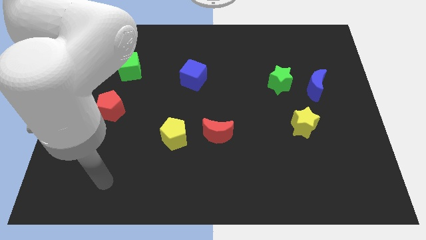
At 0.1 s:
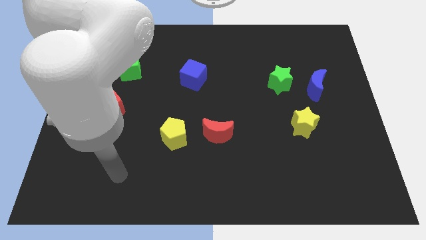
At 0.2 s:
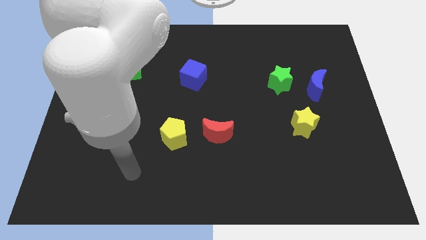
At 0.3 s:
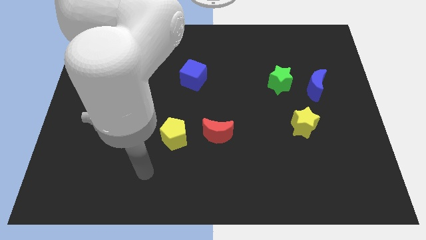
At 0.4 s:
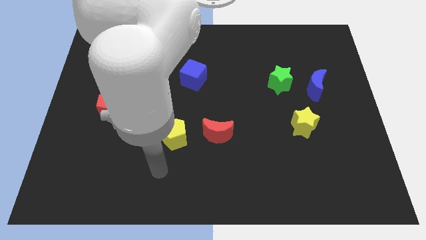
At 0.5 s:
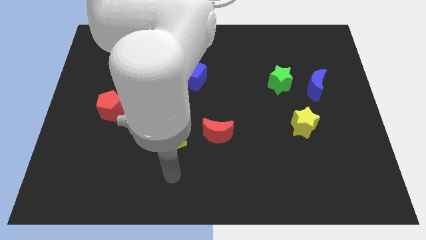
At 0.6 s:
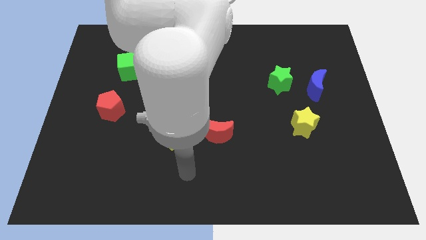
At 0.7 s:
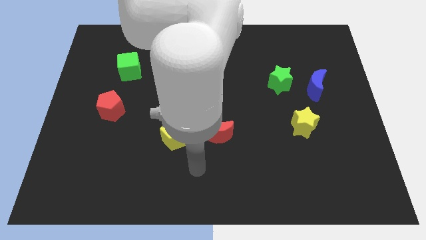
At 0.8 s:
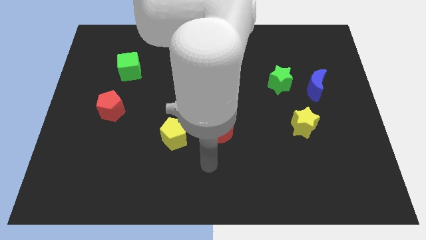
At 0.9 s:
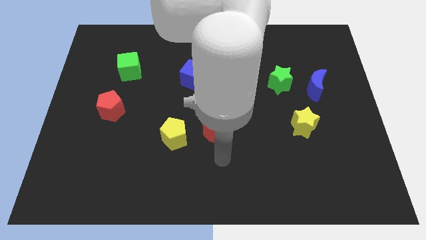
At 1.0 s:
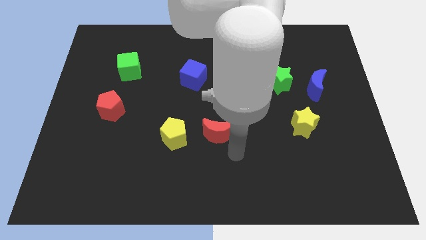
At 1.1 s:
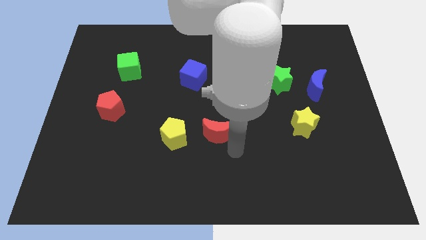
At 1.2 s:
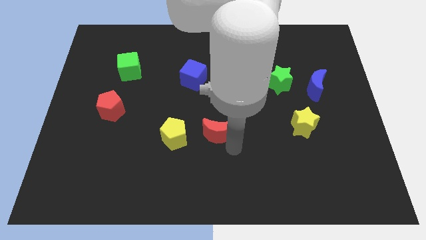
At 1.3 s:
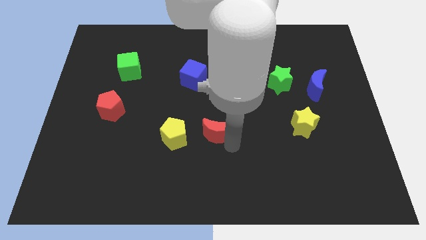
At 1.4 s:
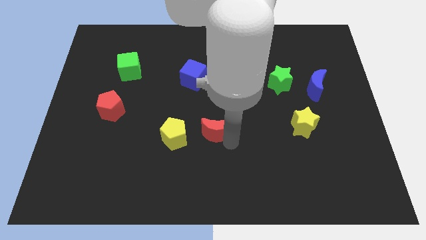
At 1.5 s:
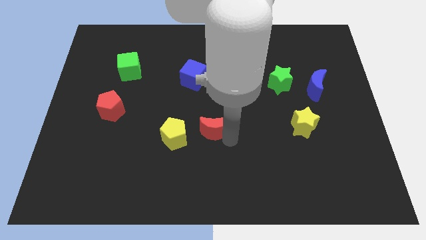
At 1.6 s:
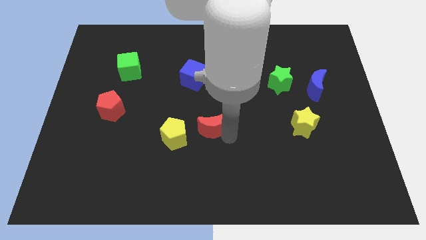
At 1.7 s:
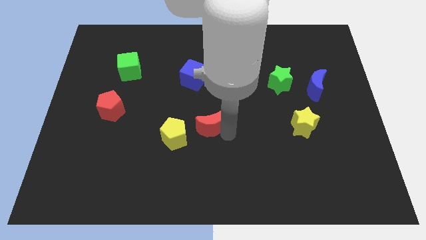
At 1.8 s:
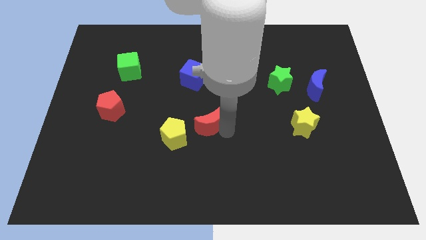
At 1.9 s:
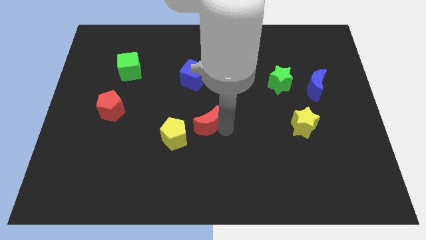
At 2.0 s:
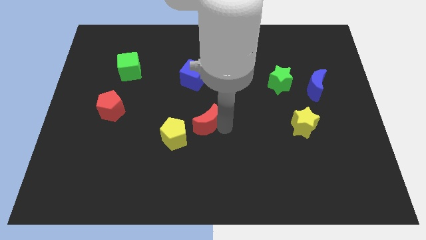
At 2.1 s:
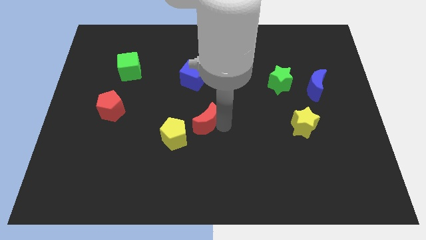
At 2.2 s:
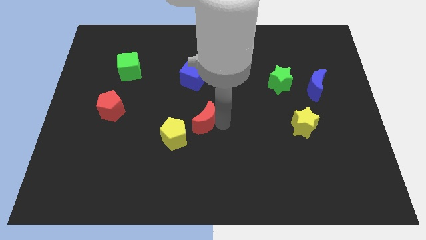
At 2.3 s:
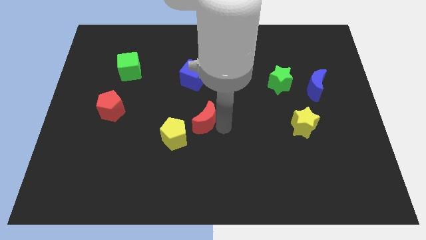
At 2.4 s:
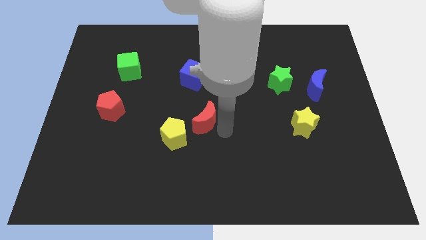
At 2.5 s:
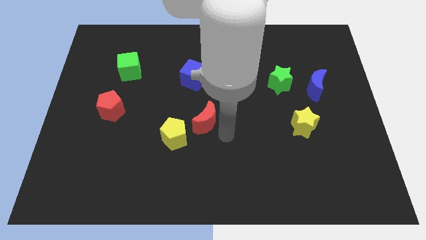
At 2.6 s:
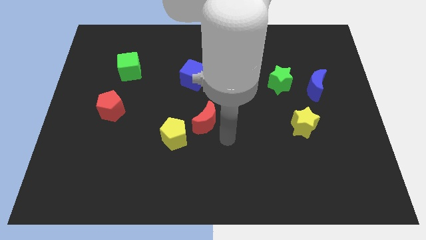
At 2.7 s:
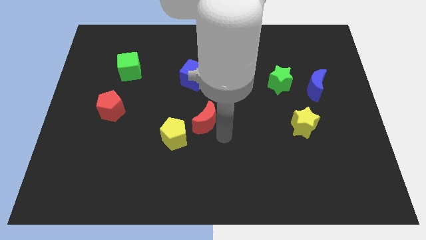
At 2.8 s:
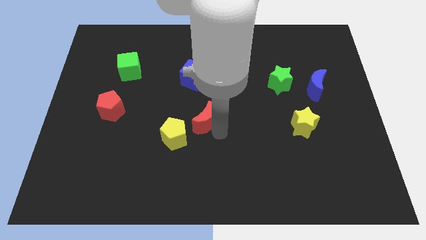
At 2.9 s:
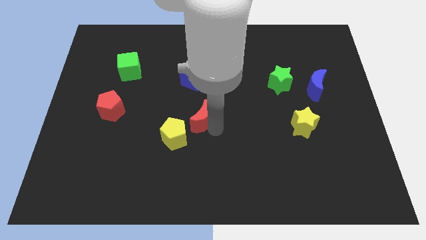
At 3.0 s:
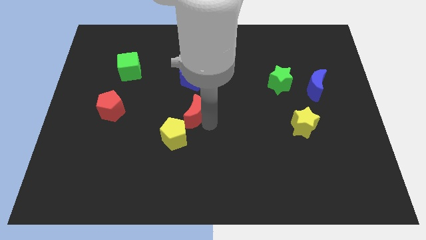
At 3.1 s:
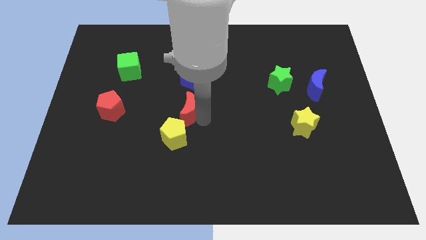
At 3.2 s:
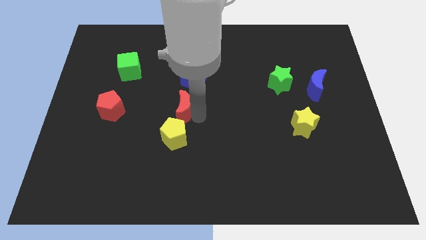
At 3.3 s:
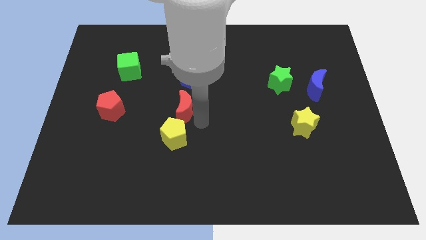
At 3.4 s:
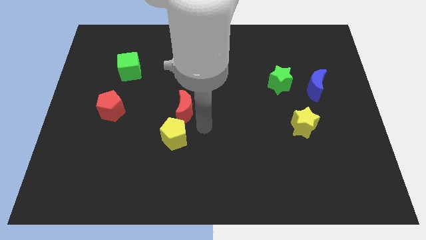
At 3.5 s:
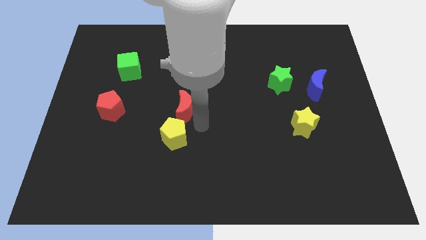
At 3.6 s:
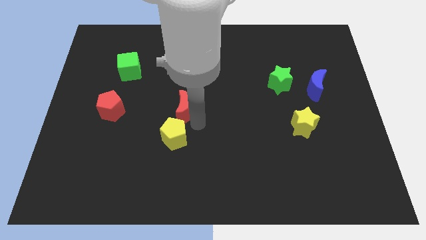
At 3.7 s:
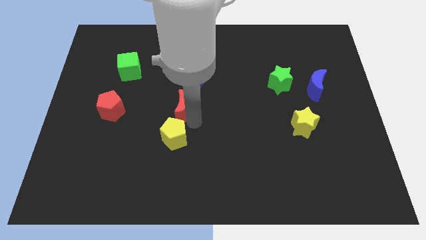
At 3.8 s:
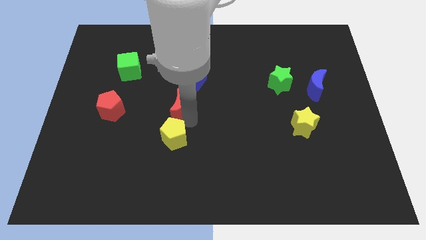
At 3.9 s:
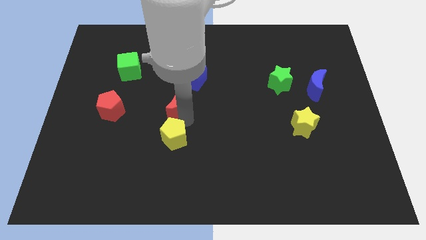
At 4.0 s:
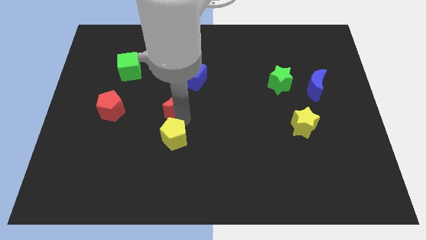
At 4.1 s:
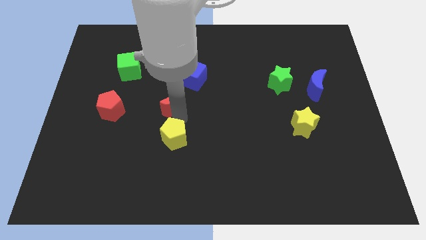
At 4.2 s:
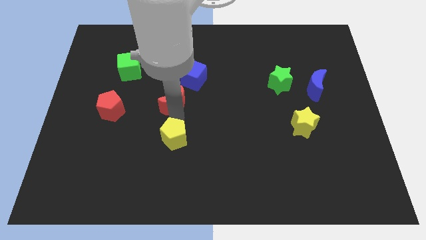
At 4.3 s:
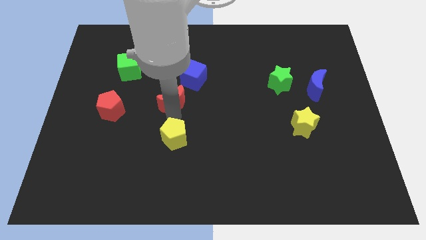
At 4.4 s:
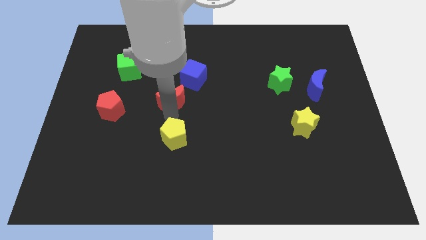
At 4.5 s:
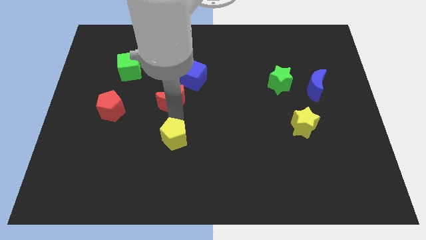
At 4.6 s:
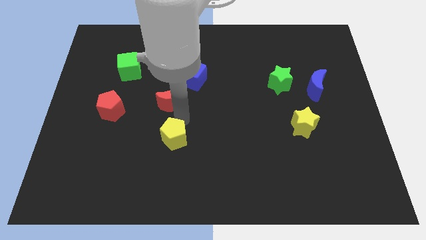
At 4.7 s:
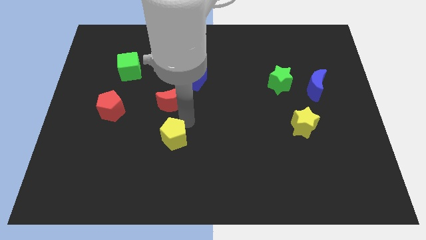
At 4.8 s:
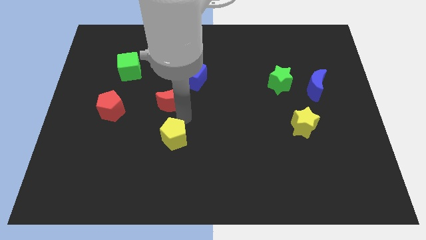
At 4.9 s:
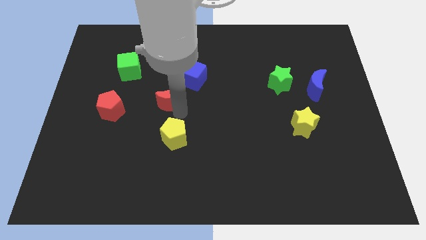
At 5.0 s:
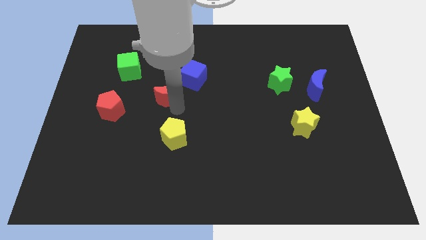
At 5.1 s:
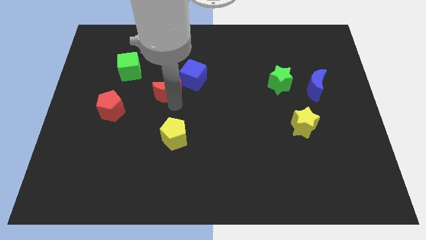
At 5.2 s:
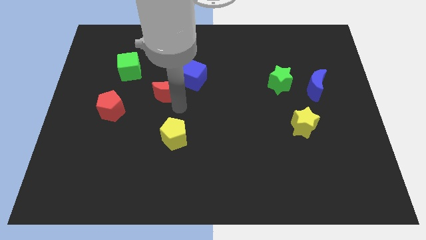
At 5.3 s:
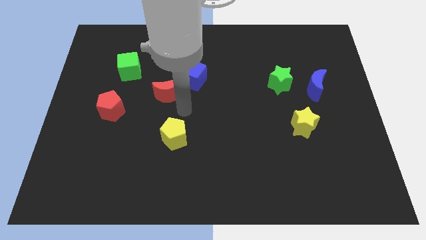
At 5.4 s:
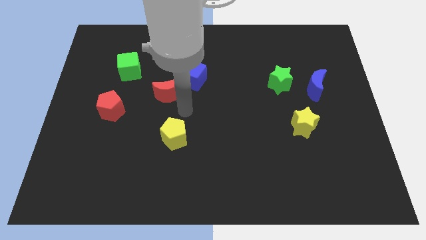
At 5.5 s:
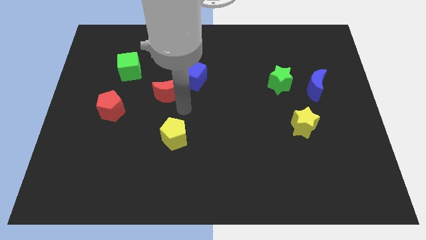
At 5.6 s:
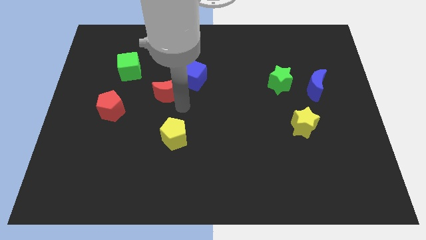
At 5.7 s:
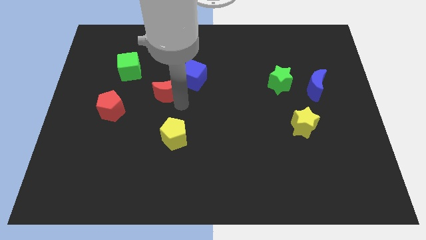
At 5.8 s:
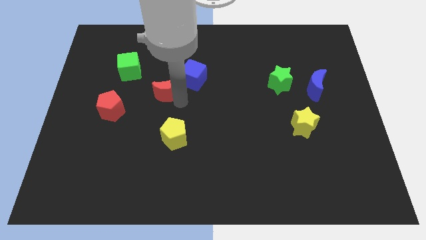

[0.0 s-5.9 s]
move the red moon left of the blue cube

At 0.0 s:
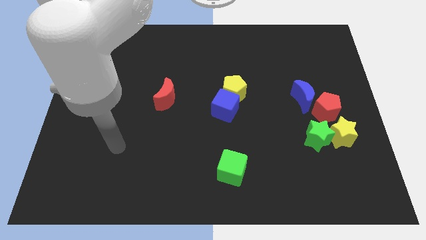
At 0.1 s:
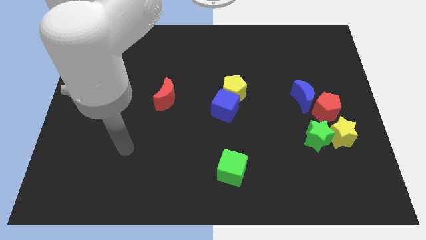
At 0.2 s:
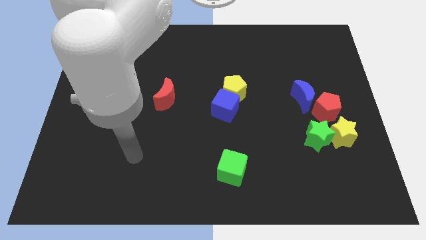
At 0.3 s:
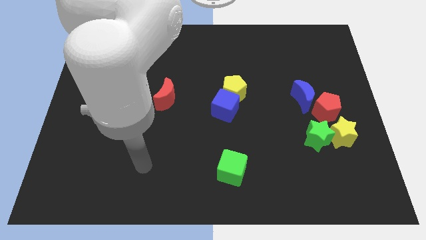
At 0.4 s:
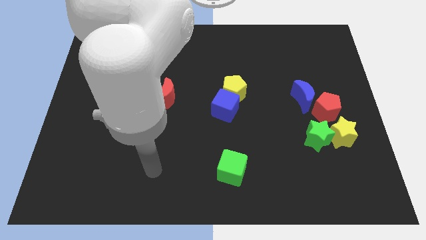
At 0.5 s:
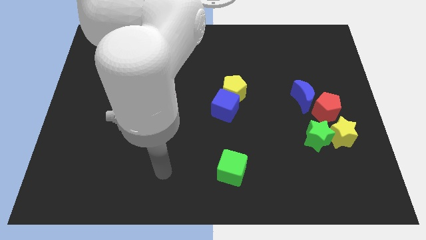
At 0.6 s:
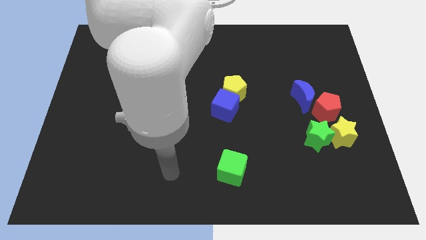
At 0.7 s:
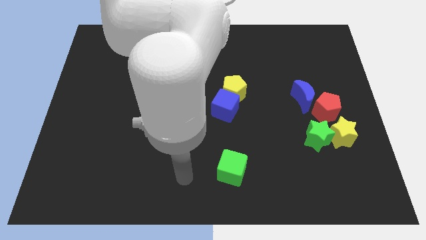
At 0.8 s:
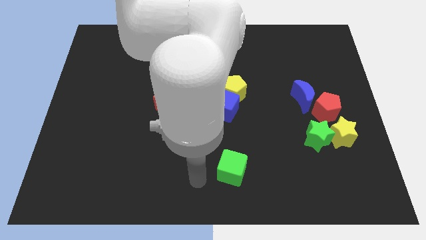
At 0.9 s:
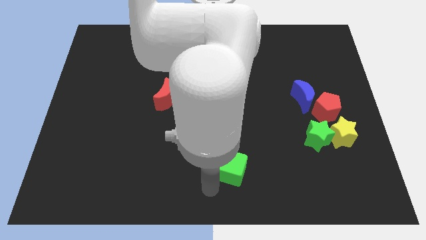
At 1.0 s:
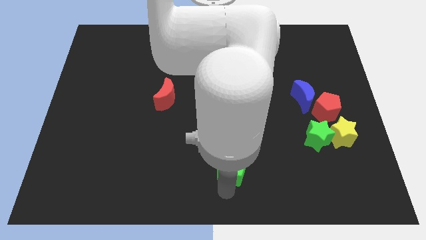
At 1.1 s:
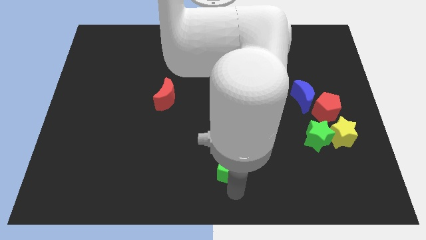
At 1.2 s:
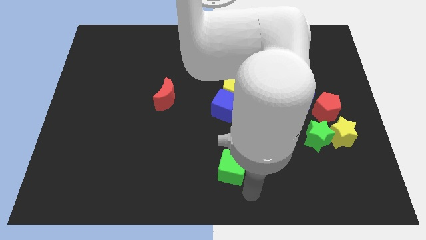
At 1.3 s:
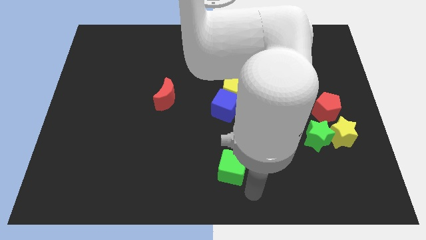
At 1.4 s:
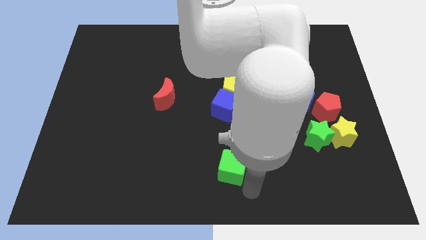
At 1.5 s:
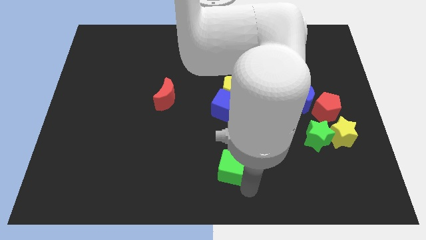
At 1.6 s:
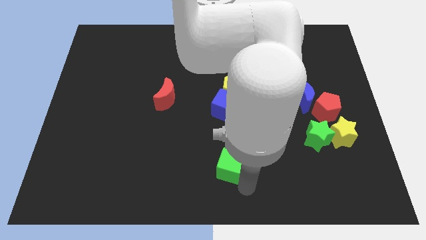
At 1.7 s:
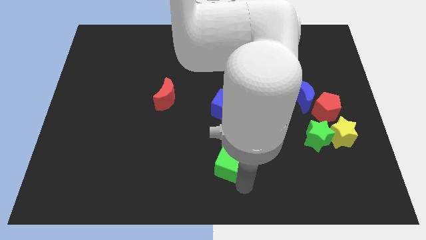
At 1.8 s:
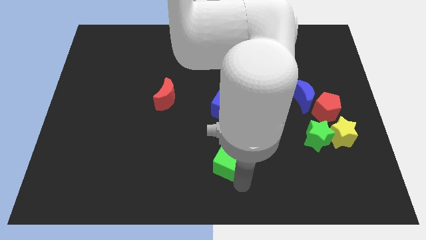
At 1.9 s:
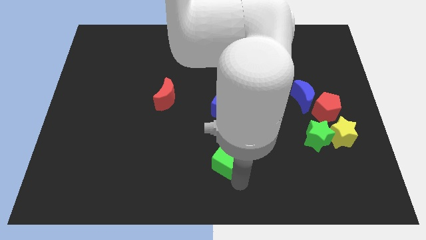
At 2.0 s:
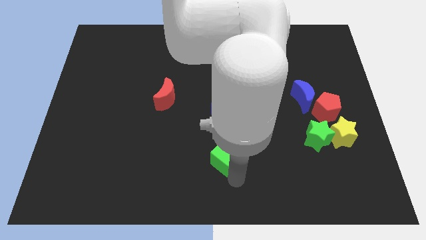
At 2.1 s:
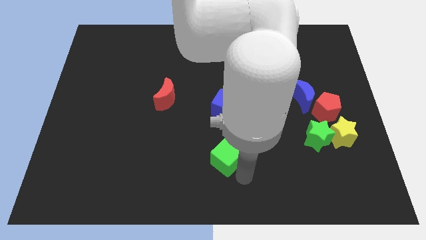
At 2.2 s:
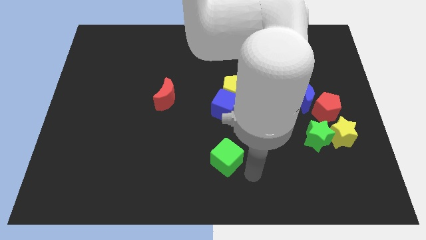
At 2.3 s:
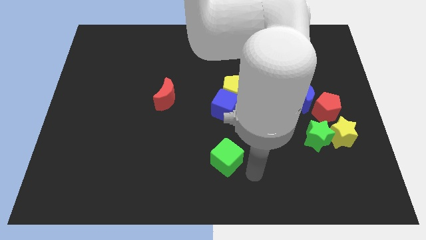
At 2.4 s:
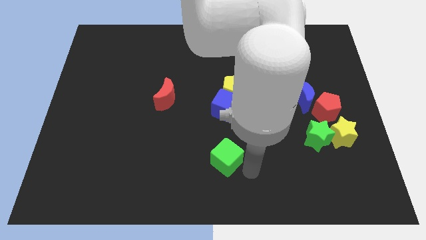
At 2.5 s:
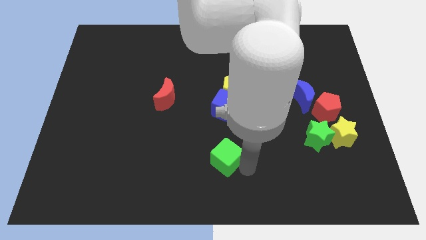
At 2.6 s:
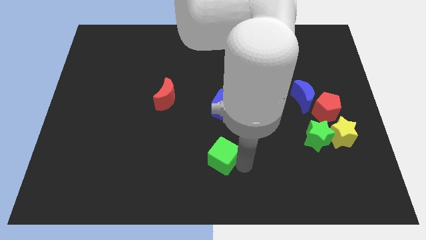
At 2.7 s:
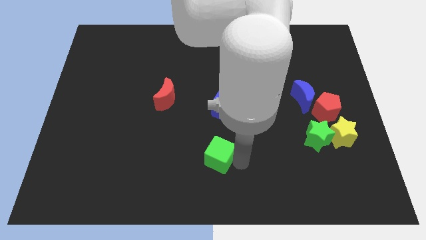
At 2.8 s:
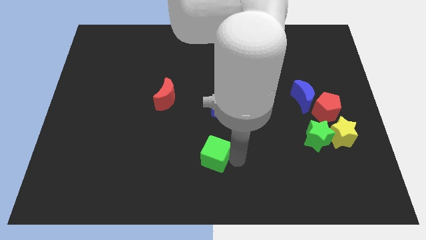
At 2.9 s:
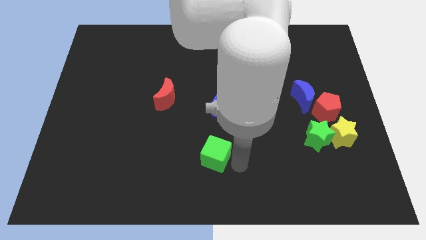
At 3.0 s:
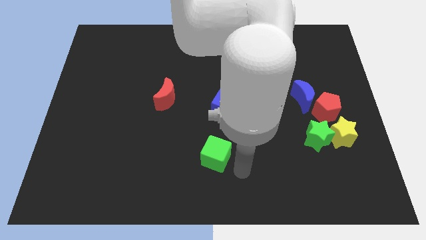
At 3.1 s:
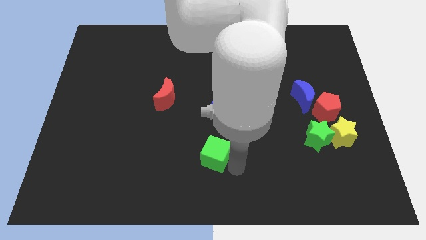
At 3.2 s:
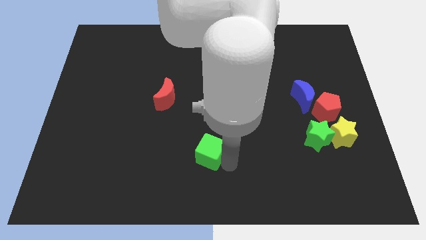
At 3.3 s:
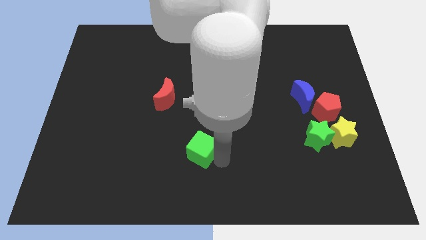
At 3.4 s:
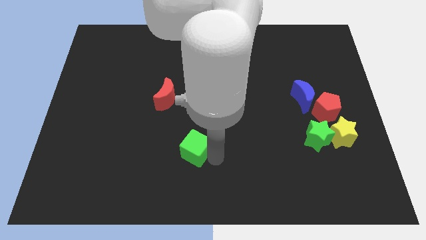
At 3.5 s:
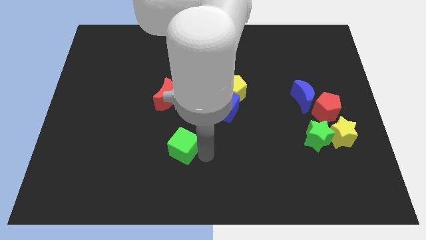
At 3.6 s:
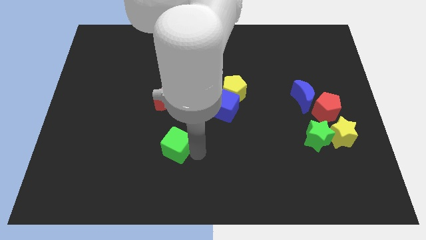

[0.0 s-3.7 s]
put the green cube below the red moon
